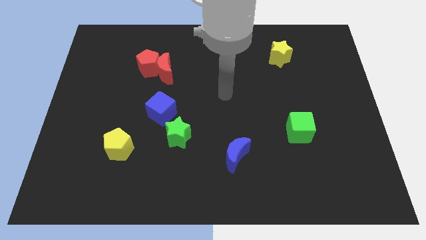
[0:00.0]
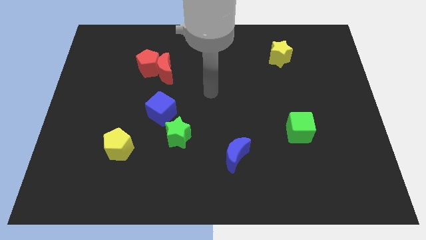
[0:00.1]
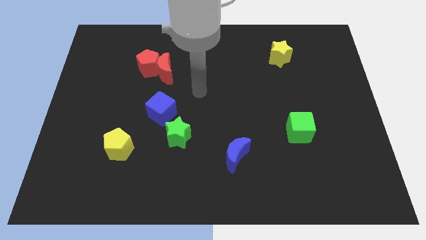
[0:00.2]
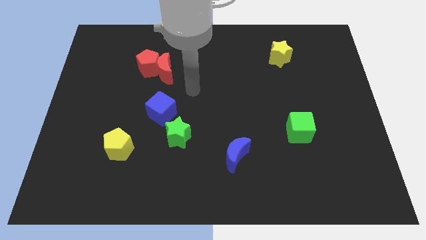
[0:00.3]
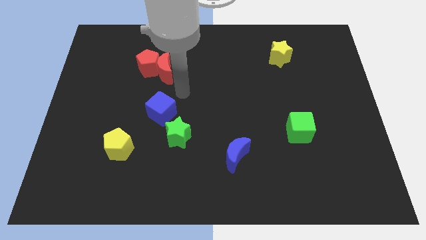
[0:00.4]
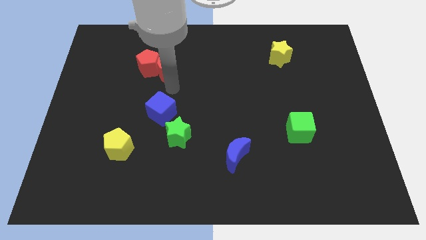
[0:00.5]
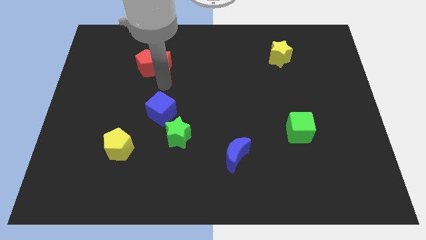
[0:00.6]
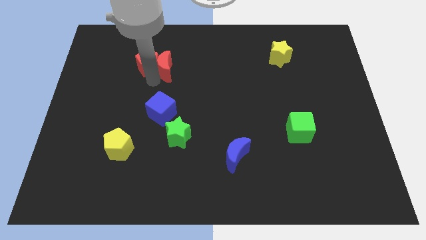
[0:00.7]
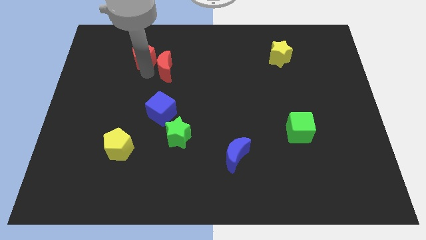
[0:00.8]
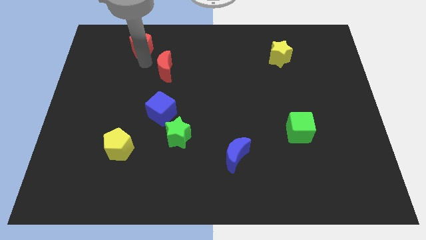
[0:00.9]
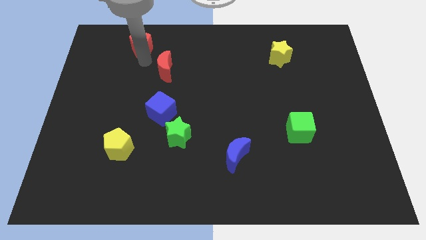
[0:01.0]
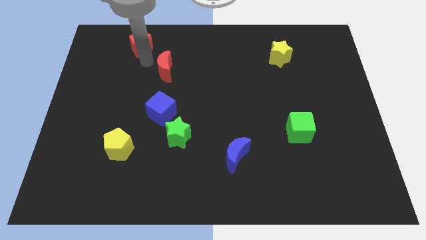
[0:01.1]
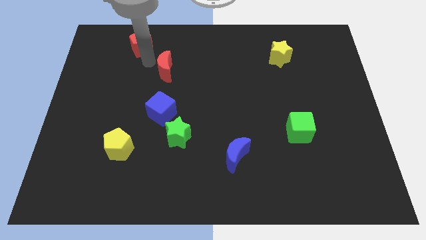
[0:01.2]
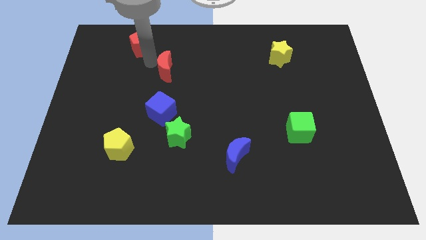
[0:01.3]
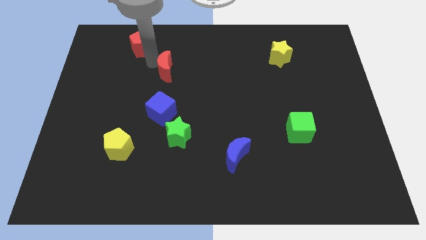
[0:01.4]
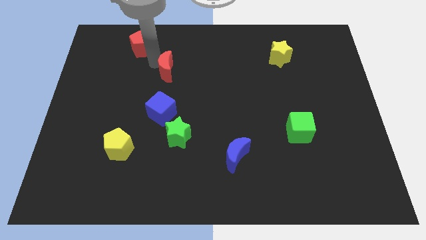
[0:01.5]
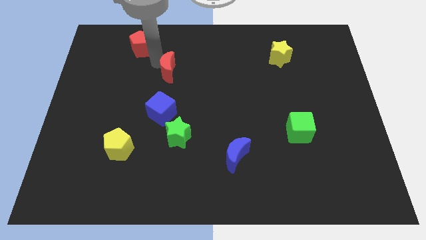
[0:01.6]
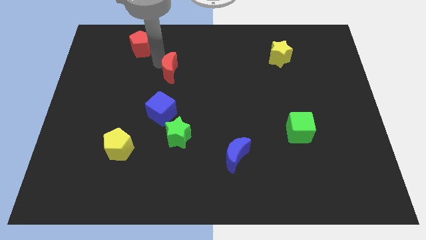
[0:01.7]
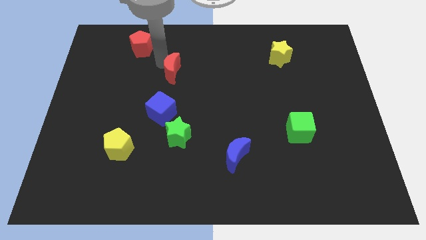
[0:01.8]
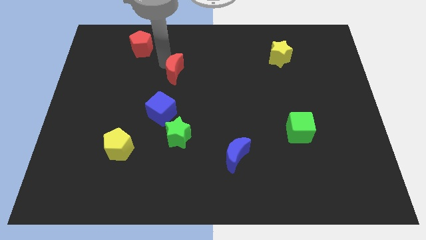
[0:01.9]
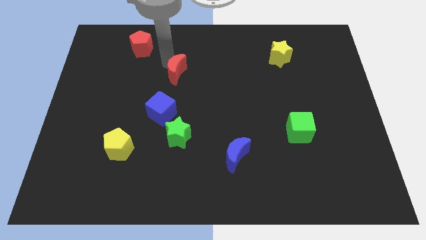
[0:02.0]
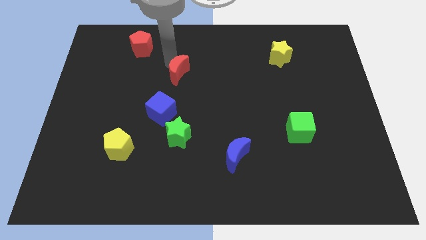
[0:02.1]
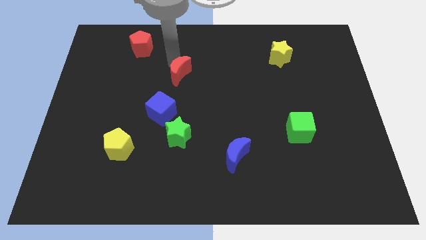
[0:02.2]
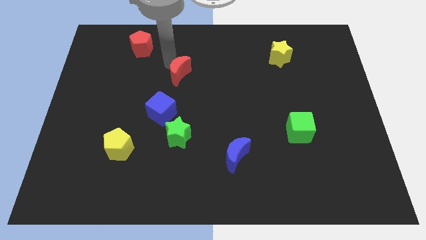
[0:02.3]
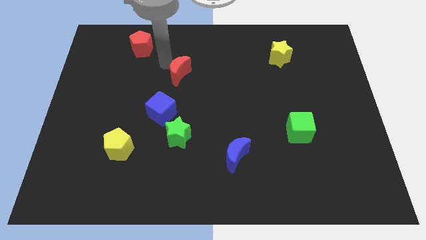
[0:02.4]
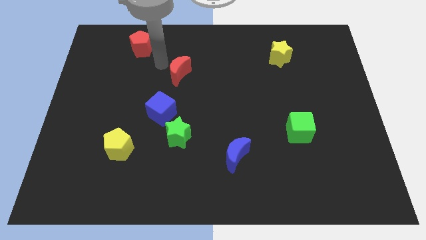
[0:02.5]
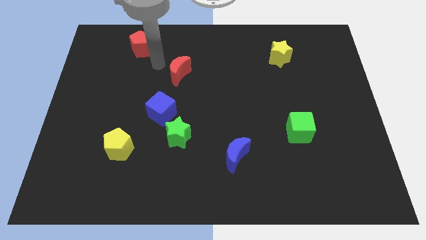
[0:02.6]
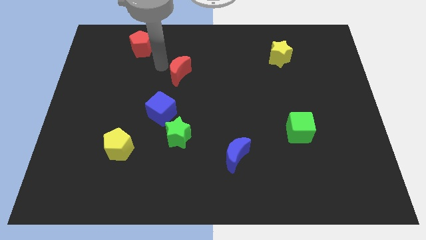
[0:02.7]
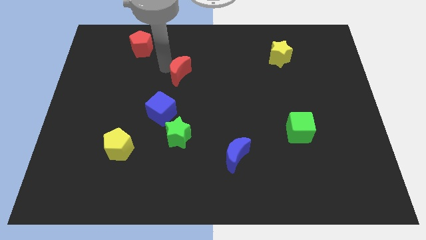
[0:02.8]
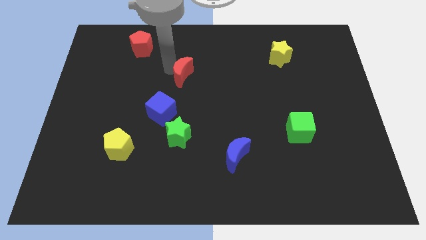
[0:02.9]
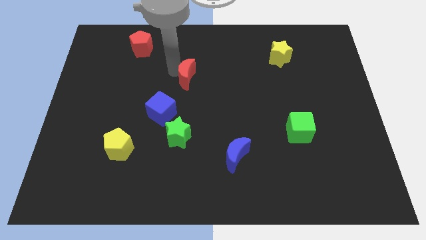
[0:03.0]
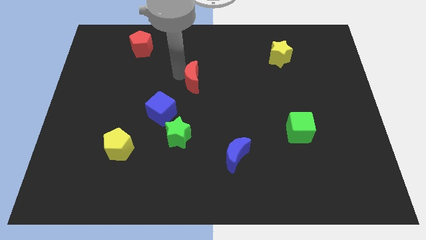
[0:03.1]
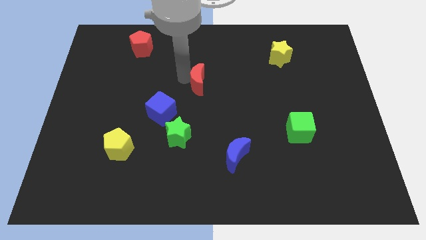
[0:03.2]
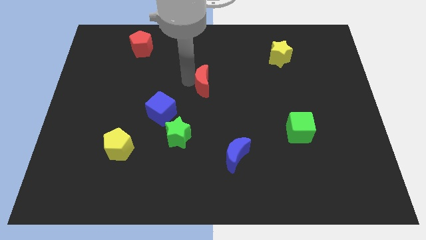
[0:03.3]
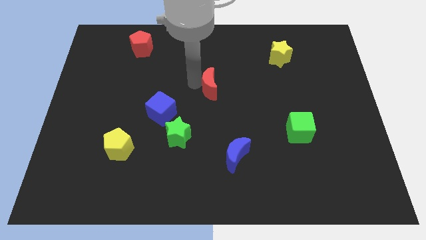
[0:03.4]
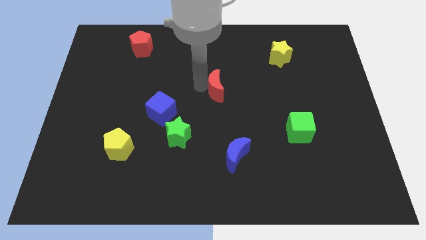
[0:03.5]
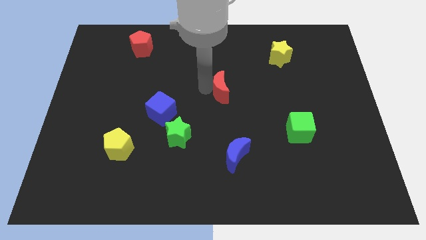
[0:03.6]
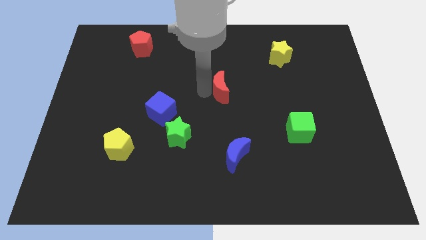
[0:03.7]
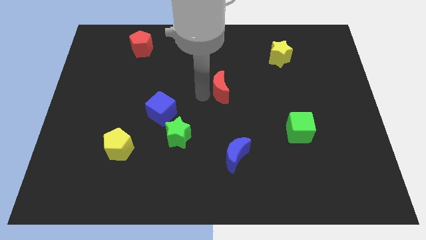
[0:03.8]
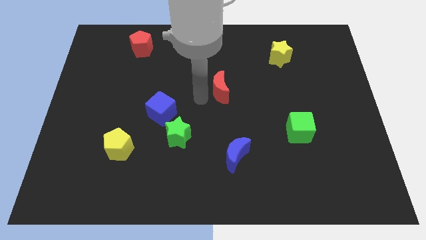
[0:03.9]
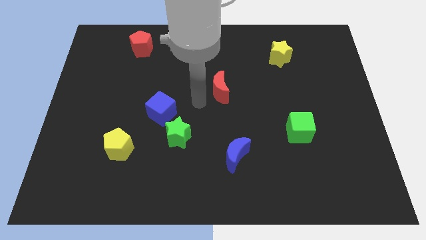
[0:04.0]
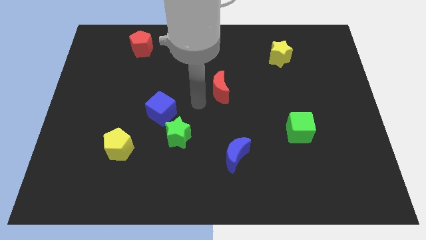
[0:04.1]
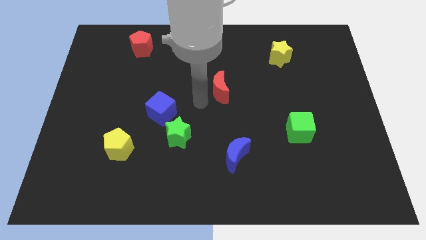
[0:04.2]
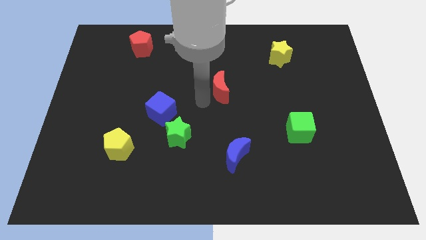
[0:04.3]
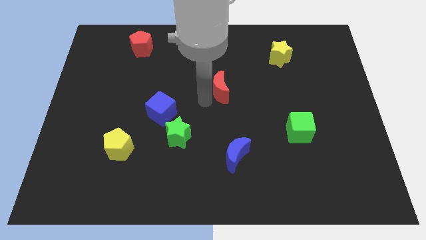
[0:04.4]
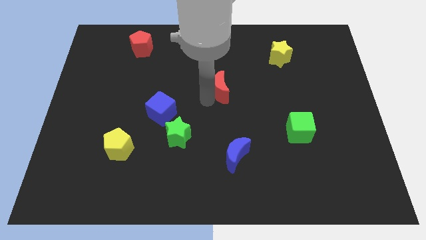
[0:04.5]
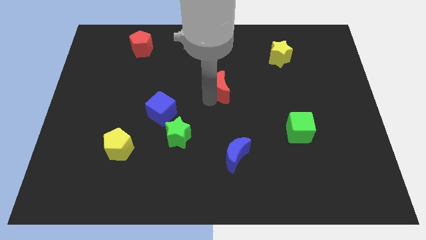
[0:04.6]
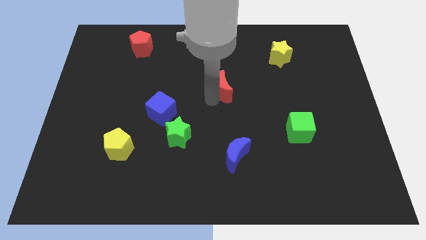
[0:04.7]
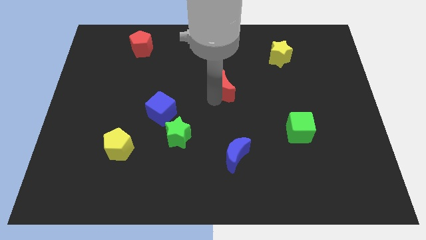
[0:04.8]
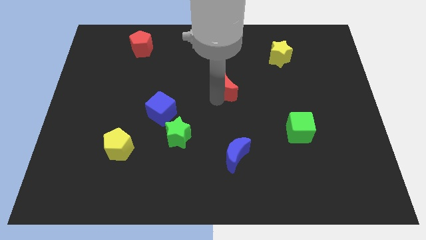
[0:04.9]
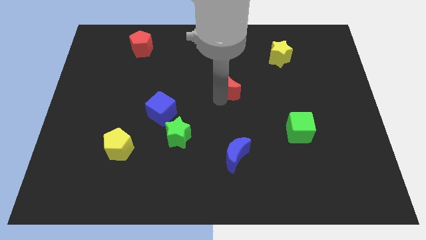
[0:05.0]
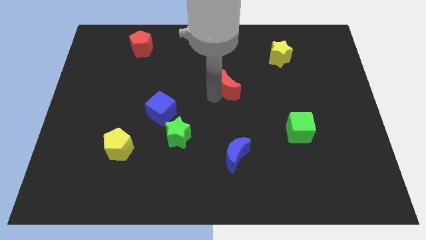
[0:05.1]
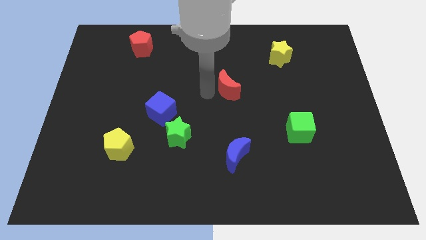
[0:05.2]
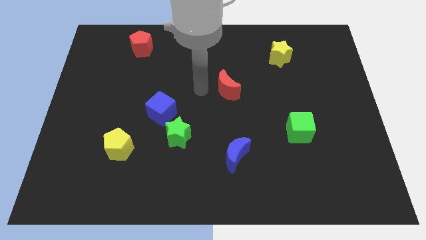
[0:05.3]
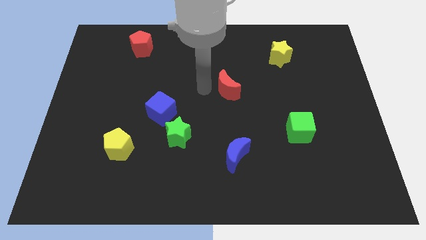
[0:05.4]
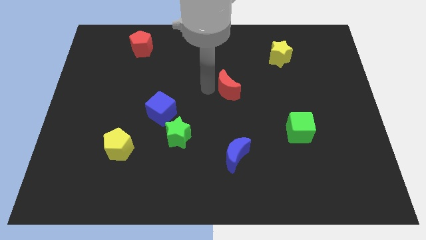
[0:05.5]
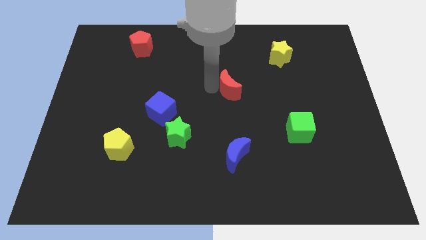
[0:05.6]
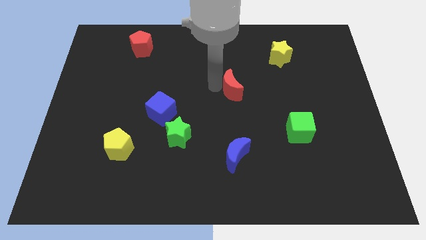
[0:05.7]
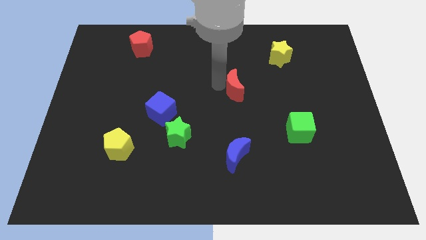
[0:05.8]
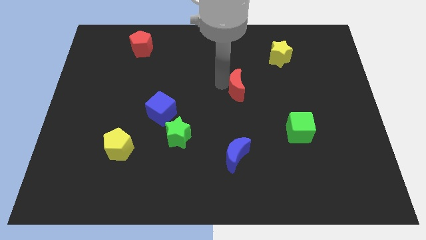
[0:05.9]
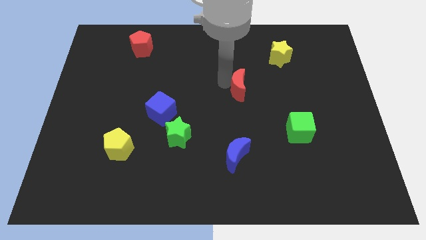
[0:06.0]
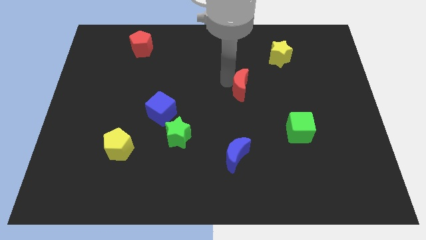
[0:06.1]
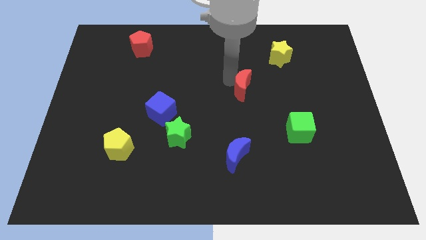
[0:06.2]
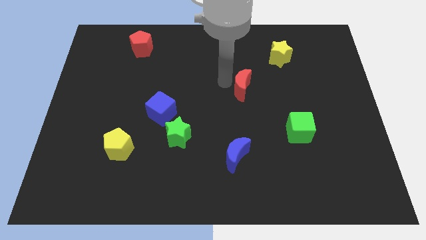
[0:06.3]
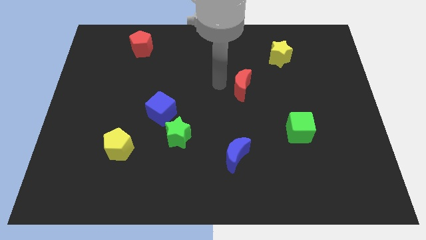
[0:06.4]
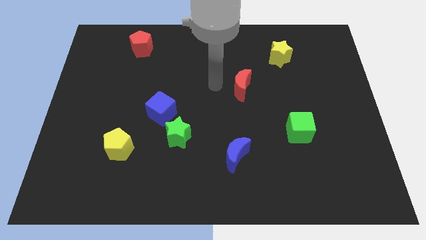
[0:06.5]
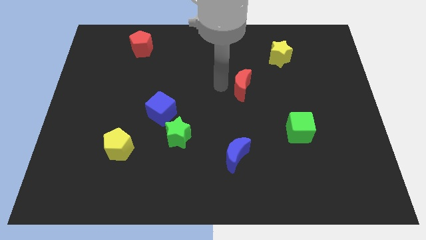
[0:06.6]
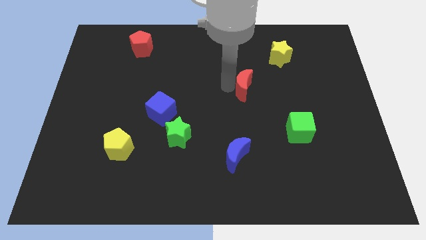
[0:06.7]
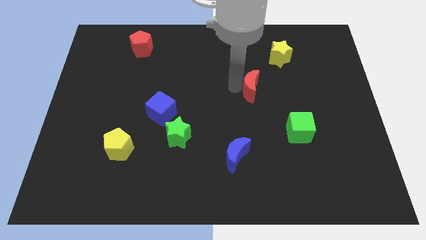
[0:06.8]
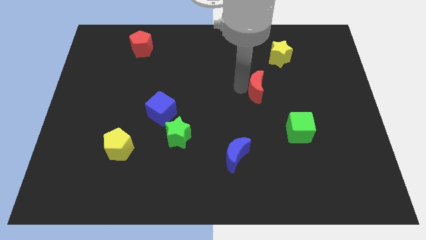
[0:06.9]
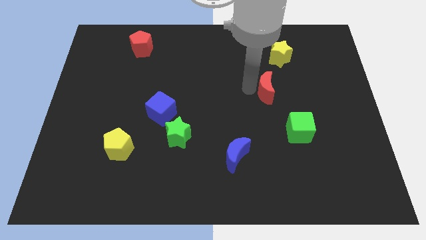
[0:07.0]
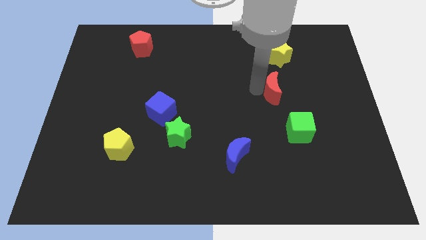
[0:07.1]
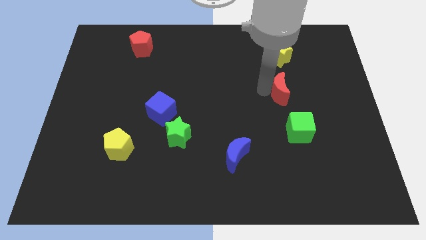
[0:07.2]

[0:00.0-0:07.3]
push the red moon above the green cube
